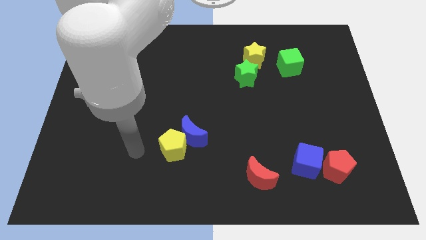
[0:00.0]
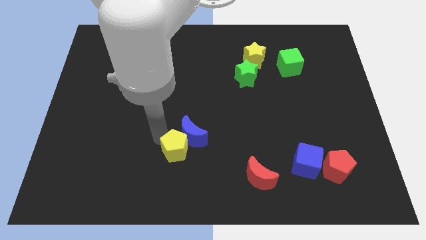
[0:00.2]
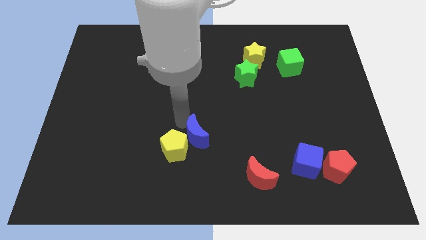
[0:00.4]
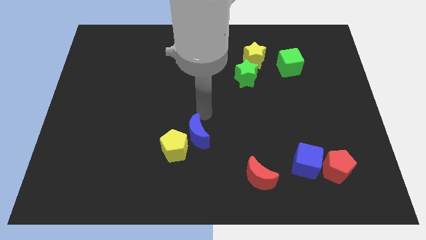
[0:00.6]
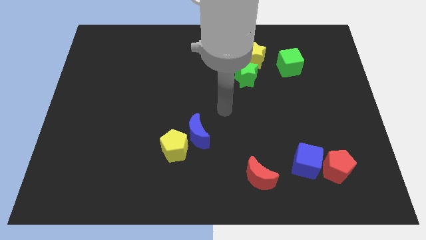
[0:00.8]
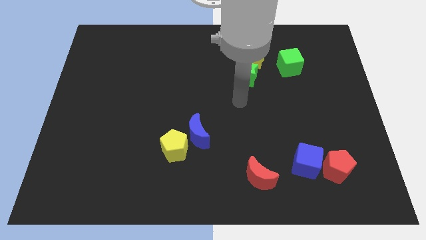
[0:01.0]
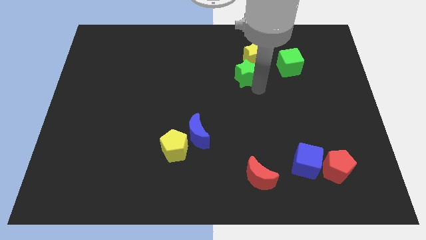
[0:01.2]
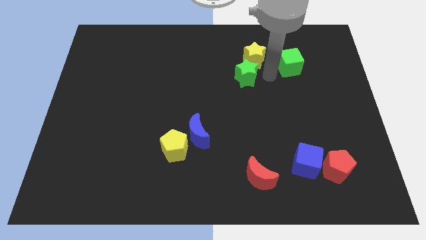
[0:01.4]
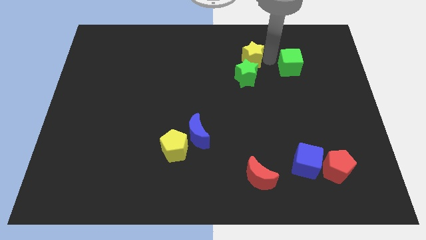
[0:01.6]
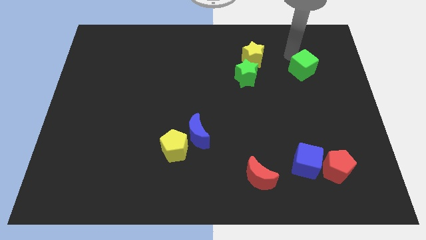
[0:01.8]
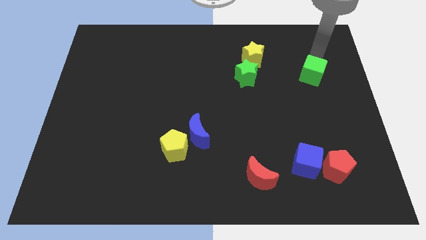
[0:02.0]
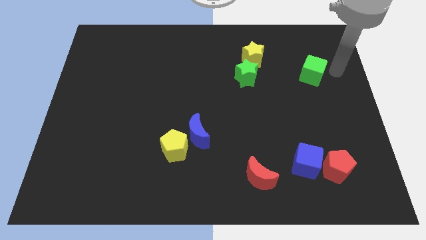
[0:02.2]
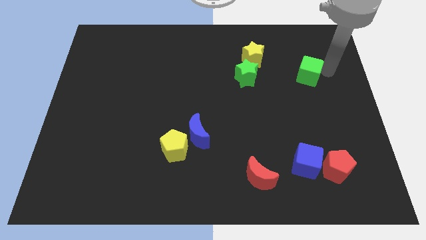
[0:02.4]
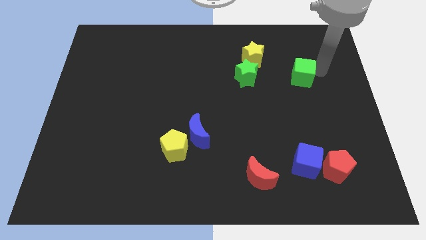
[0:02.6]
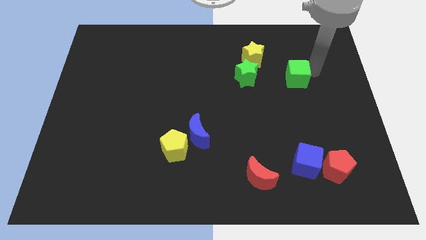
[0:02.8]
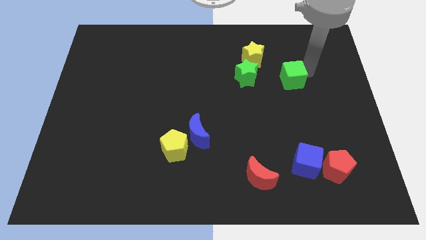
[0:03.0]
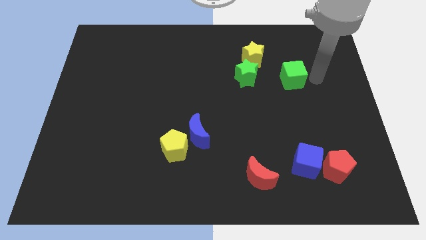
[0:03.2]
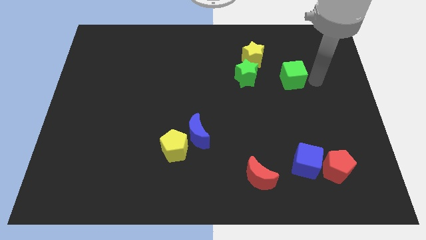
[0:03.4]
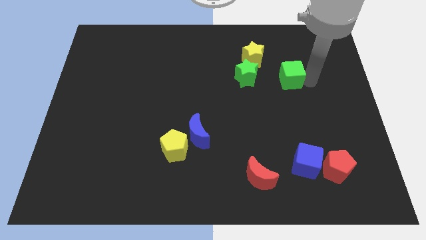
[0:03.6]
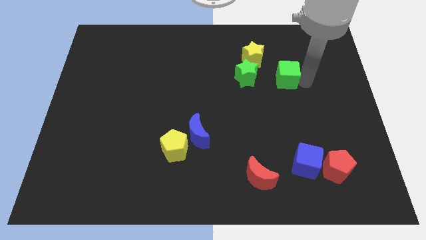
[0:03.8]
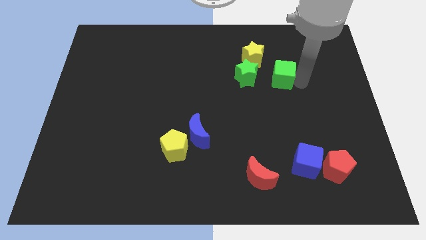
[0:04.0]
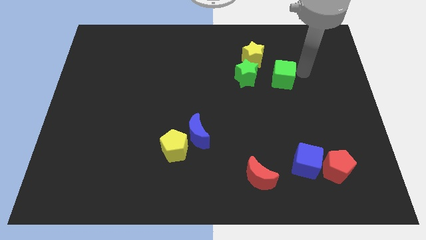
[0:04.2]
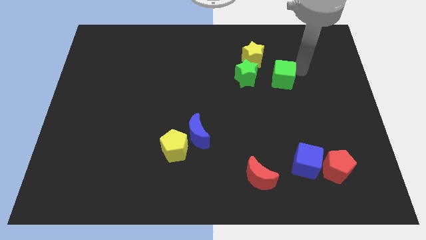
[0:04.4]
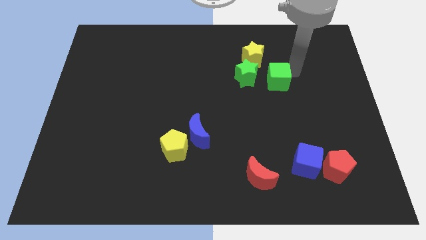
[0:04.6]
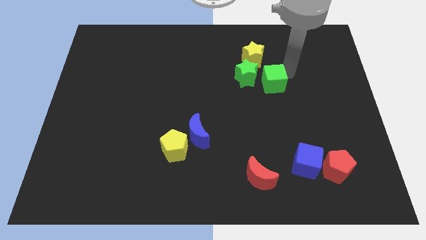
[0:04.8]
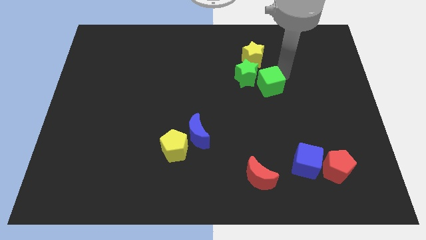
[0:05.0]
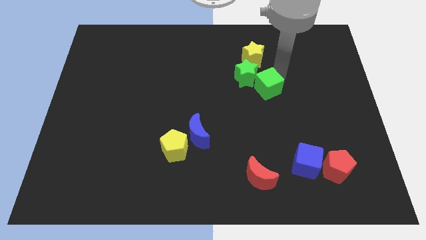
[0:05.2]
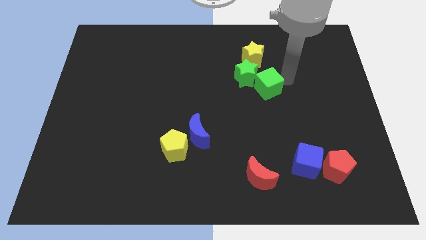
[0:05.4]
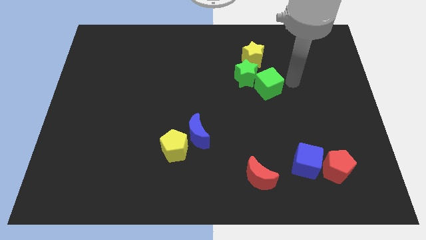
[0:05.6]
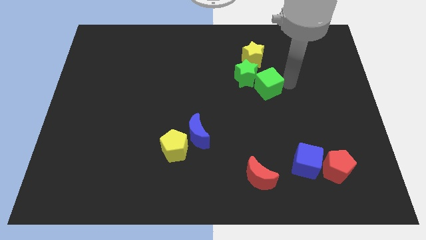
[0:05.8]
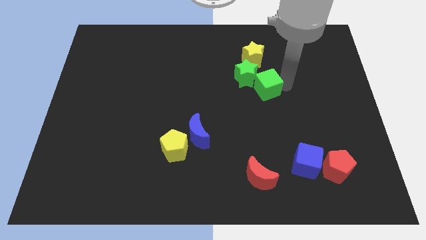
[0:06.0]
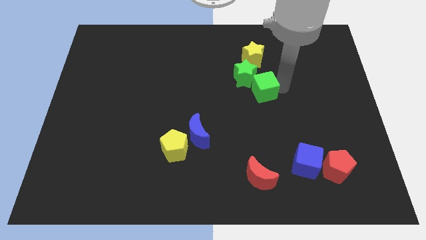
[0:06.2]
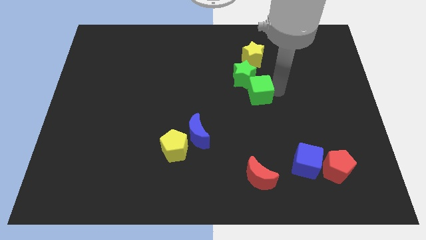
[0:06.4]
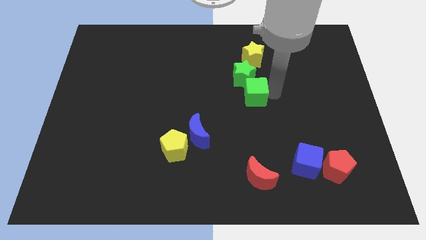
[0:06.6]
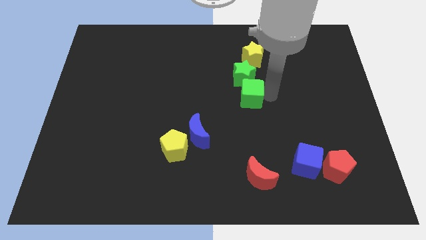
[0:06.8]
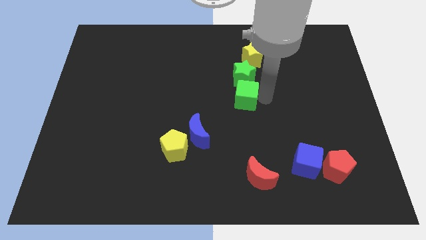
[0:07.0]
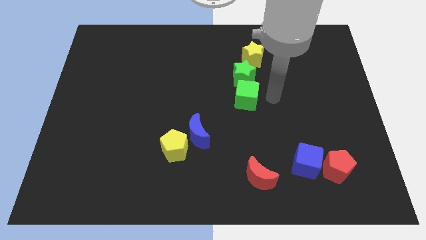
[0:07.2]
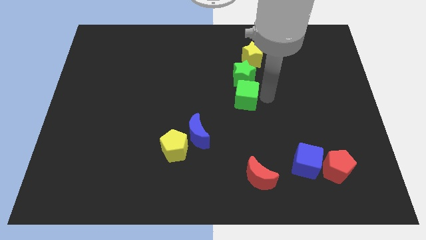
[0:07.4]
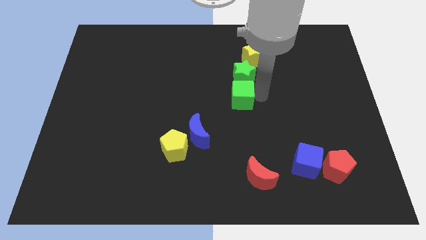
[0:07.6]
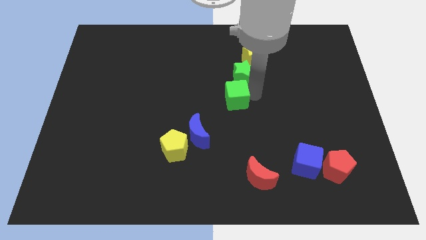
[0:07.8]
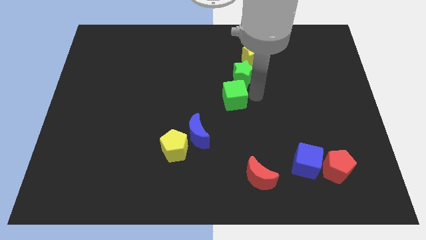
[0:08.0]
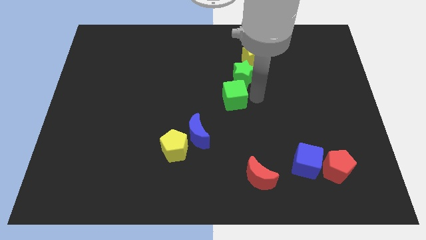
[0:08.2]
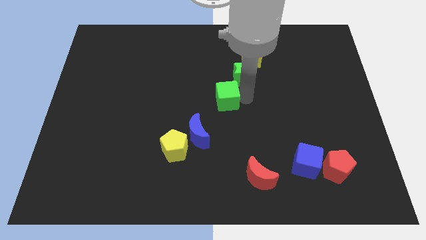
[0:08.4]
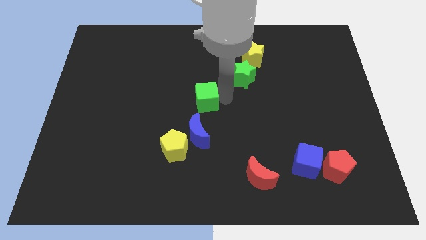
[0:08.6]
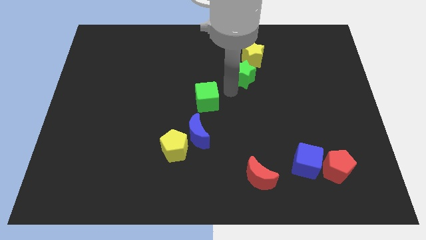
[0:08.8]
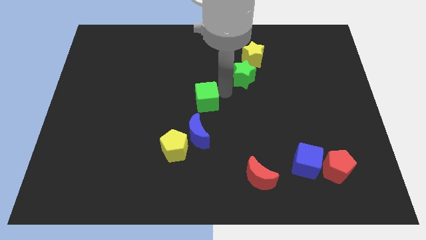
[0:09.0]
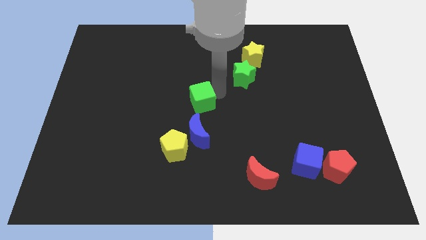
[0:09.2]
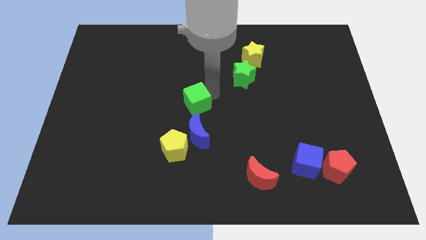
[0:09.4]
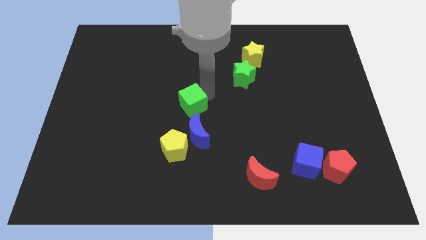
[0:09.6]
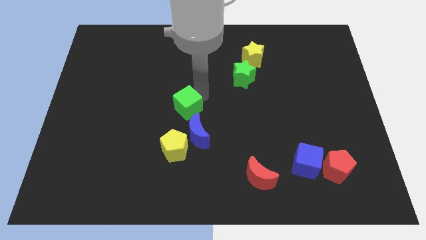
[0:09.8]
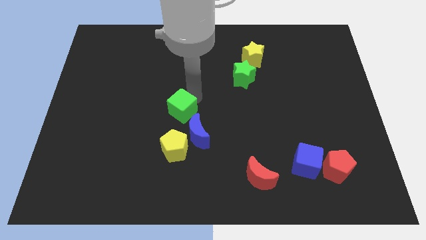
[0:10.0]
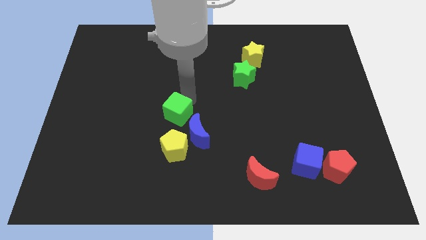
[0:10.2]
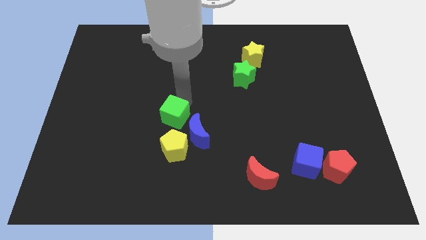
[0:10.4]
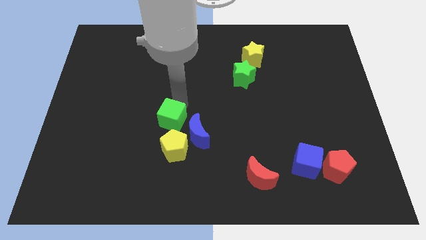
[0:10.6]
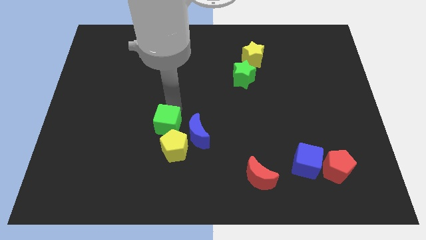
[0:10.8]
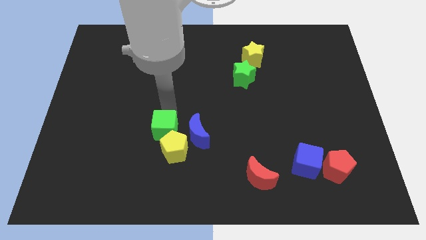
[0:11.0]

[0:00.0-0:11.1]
push the green cube close to the yellow pentagon

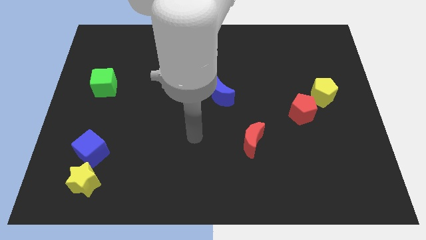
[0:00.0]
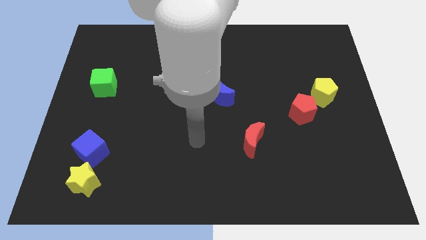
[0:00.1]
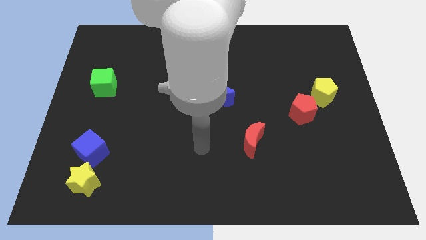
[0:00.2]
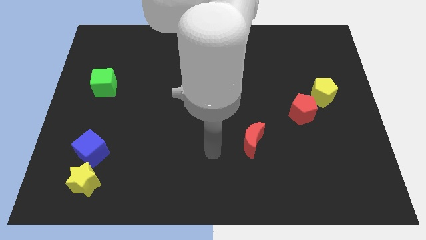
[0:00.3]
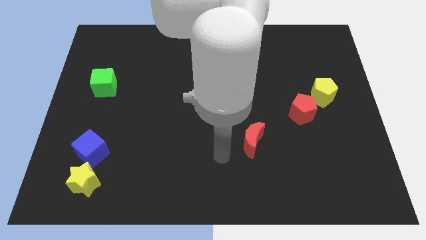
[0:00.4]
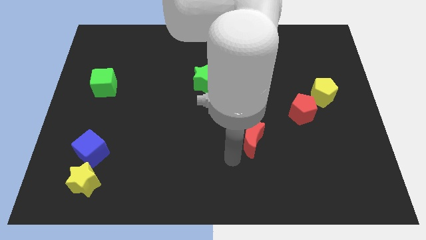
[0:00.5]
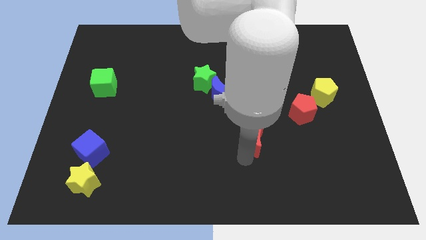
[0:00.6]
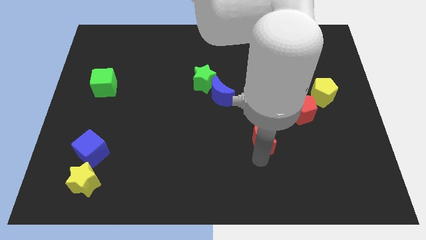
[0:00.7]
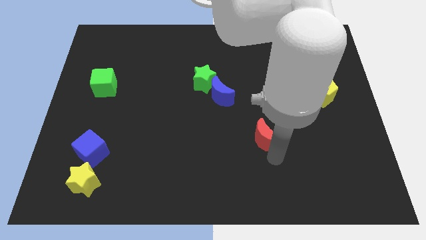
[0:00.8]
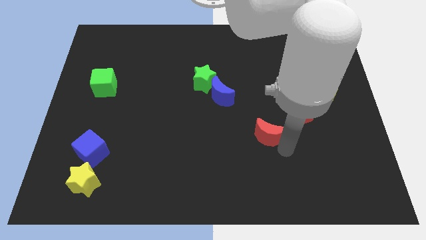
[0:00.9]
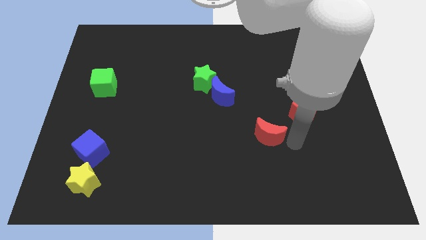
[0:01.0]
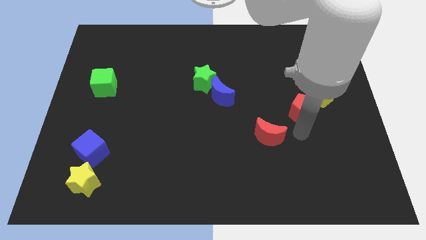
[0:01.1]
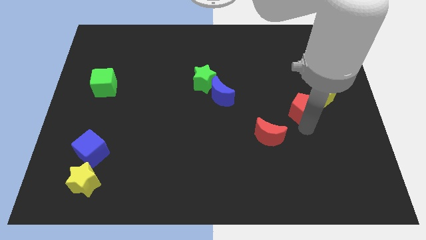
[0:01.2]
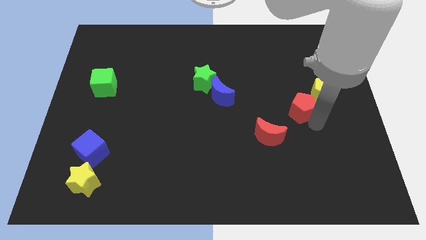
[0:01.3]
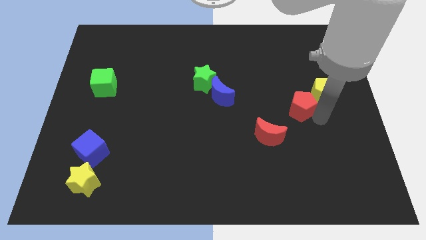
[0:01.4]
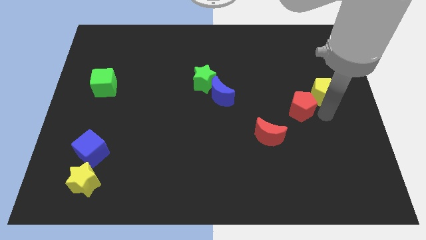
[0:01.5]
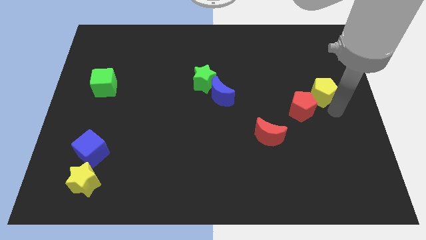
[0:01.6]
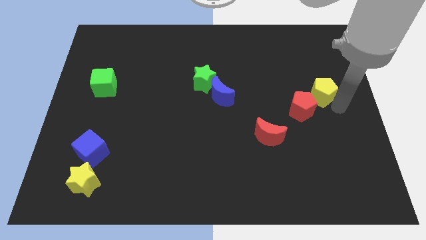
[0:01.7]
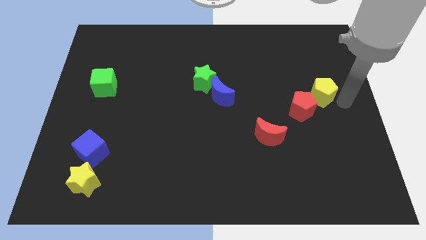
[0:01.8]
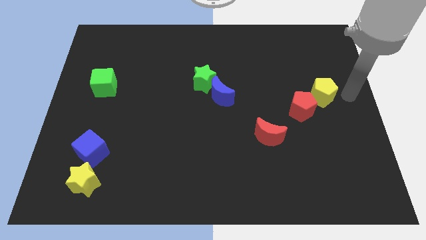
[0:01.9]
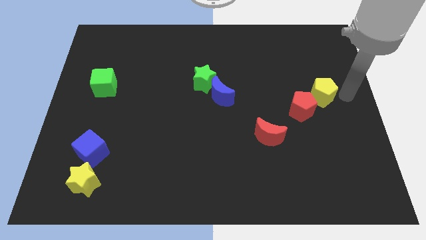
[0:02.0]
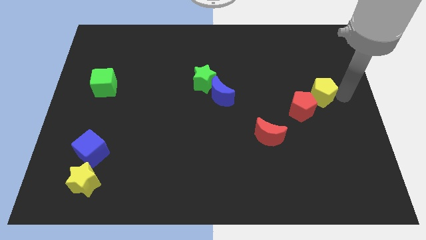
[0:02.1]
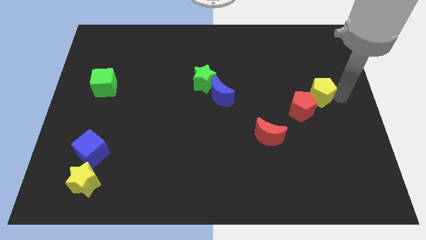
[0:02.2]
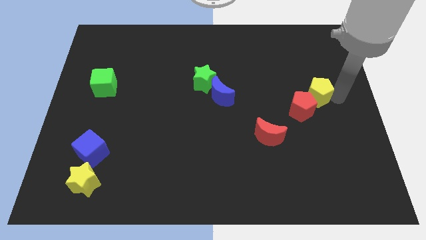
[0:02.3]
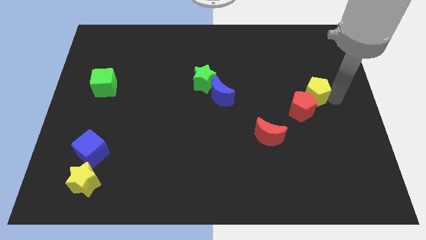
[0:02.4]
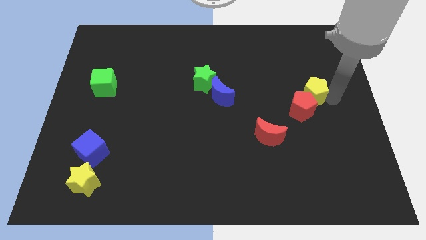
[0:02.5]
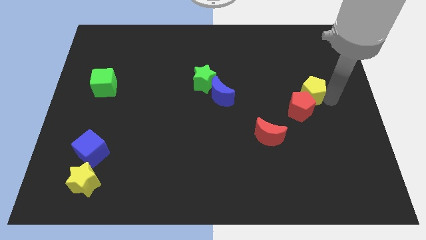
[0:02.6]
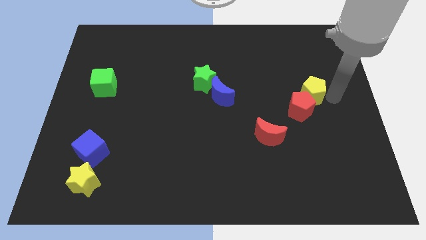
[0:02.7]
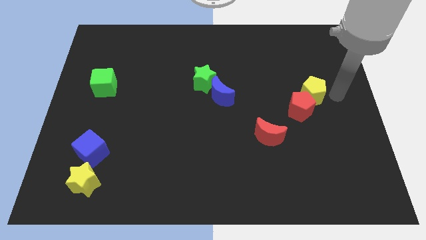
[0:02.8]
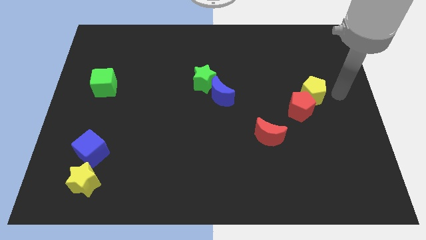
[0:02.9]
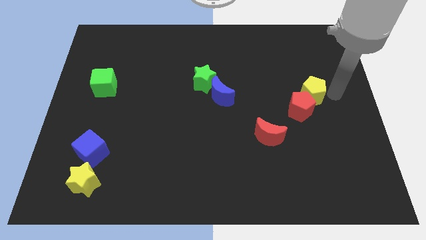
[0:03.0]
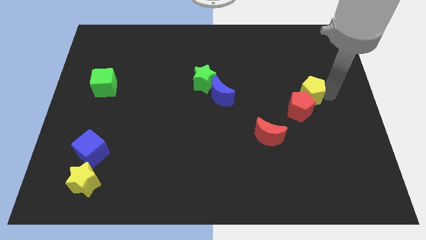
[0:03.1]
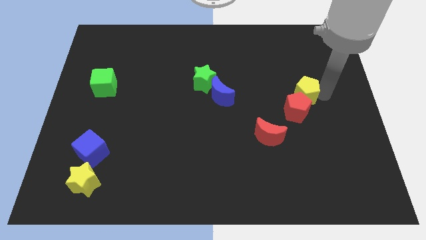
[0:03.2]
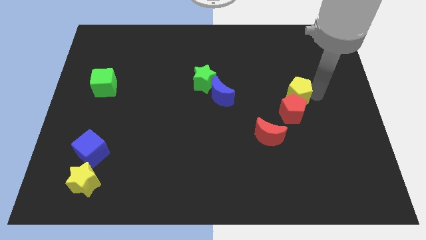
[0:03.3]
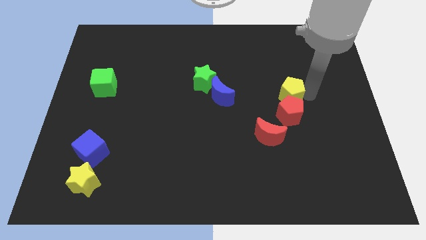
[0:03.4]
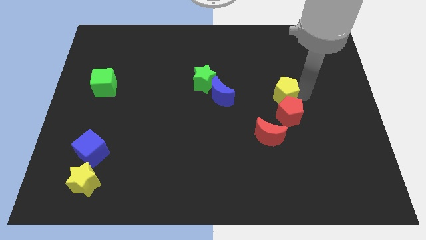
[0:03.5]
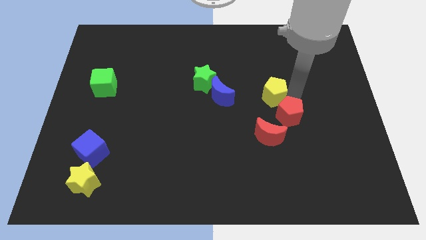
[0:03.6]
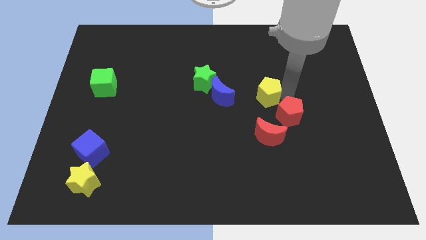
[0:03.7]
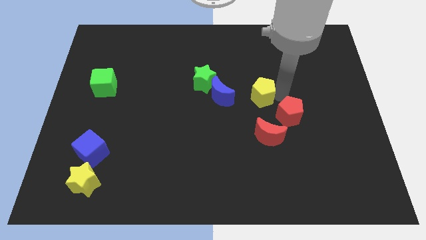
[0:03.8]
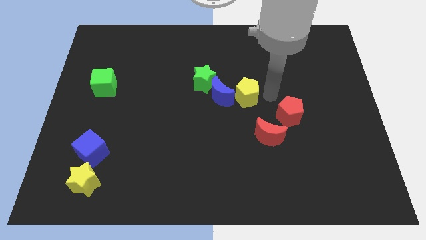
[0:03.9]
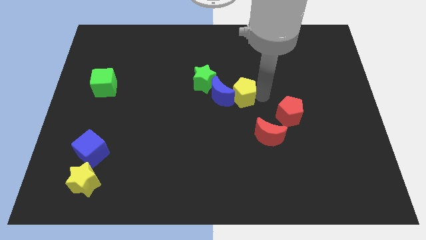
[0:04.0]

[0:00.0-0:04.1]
move the yellow pentagon to the blue moon
